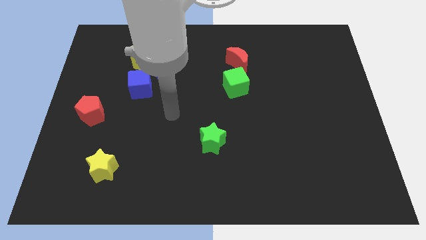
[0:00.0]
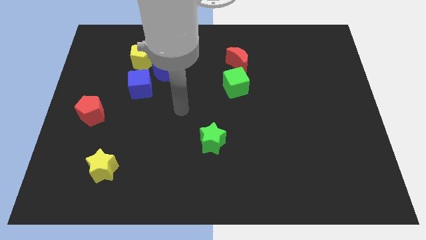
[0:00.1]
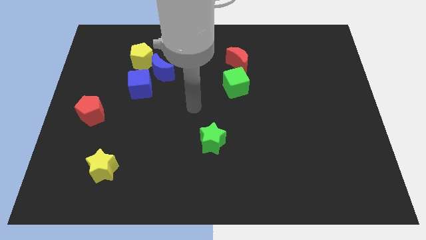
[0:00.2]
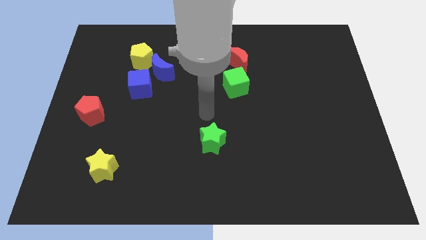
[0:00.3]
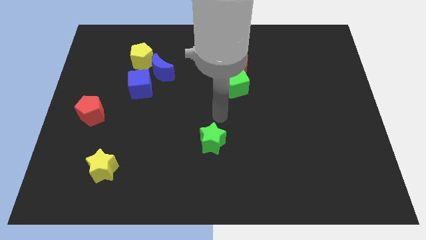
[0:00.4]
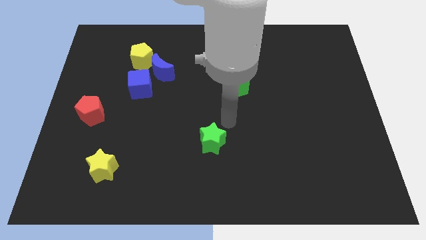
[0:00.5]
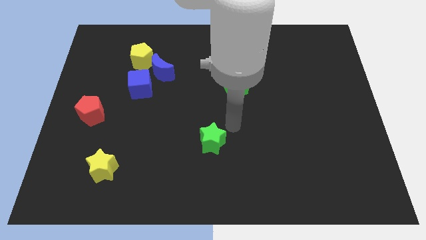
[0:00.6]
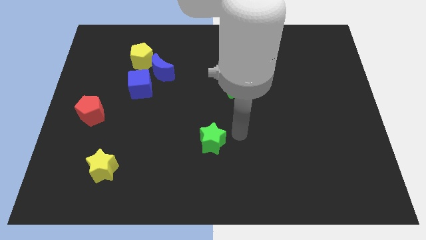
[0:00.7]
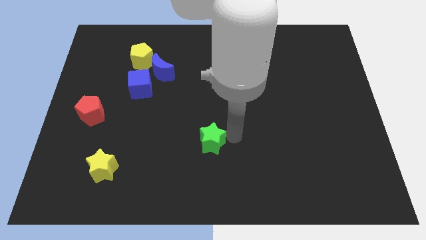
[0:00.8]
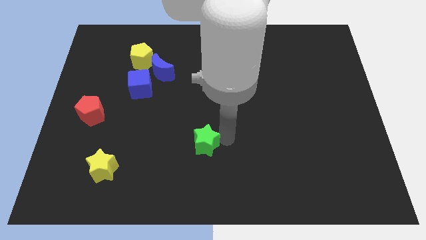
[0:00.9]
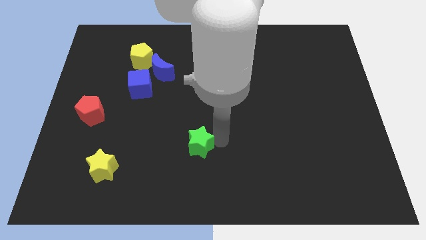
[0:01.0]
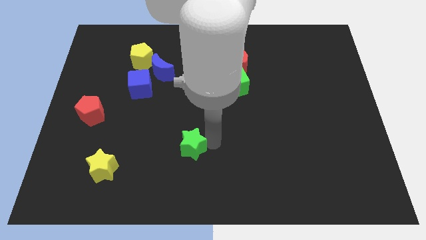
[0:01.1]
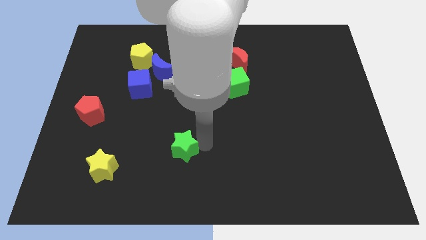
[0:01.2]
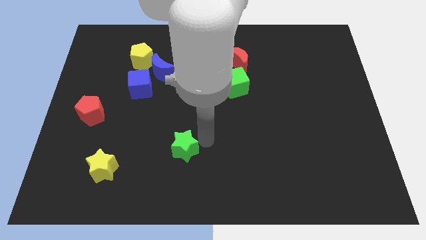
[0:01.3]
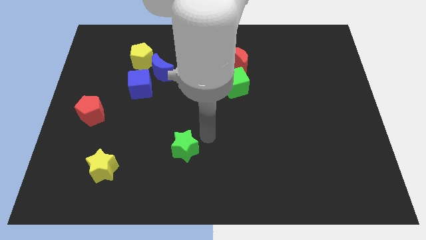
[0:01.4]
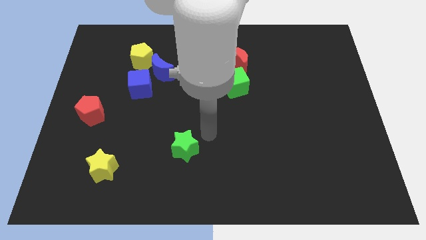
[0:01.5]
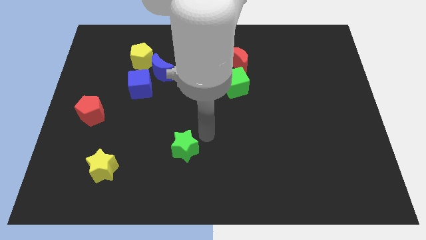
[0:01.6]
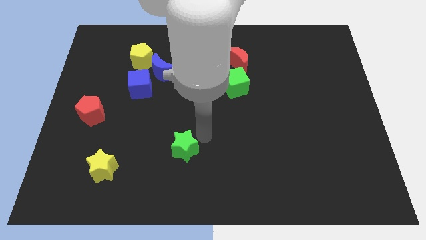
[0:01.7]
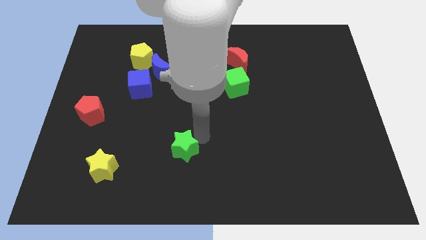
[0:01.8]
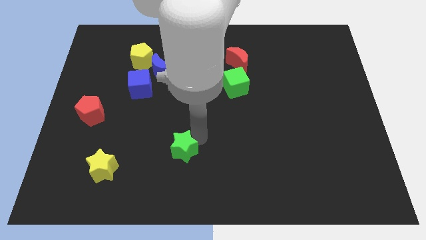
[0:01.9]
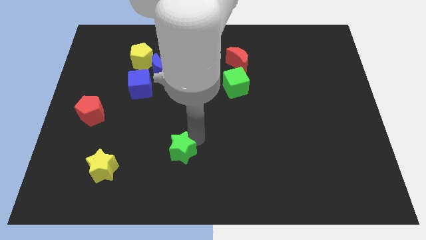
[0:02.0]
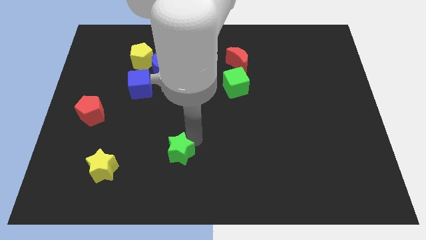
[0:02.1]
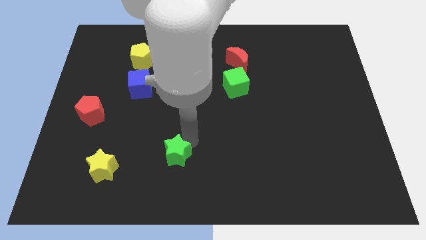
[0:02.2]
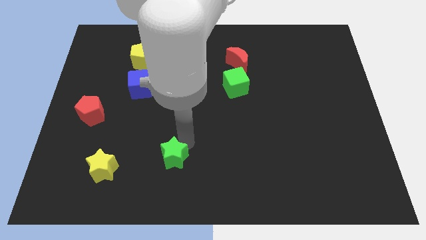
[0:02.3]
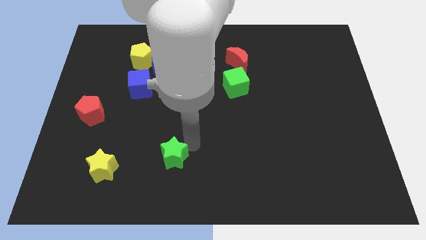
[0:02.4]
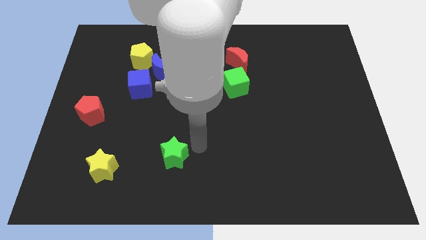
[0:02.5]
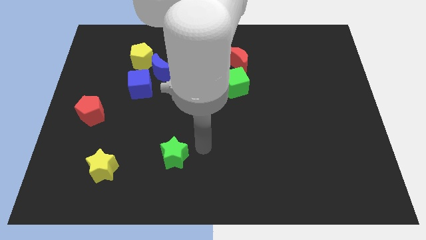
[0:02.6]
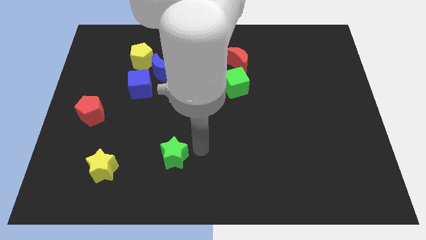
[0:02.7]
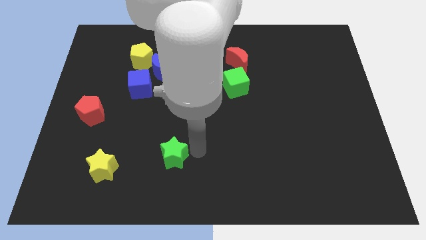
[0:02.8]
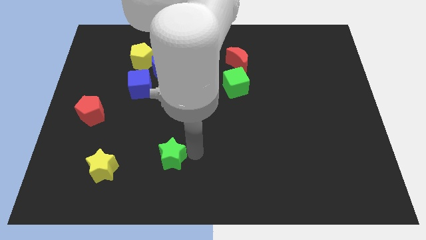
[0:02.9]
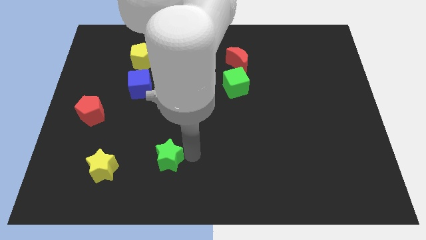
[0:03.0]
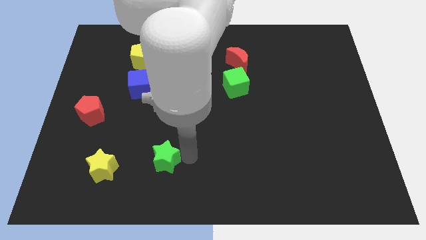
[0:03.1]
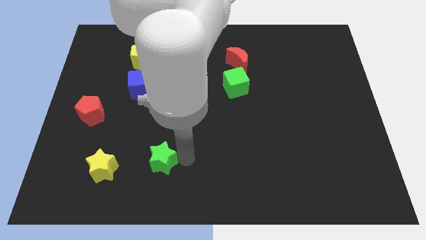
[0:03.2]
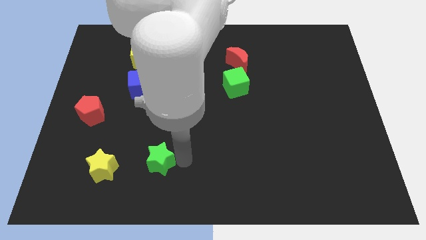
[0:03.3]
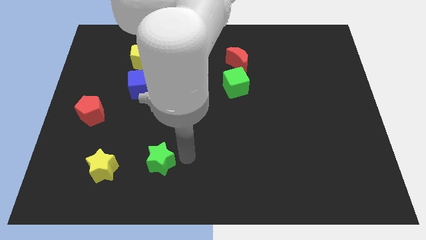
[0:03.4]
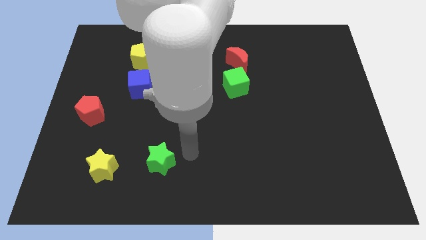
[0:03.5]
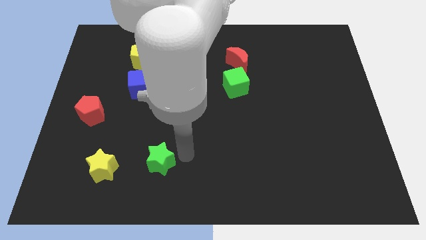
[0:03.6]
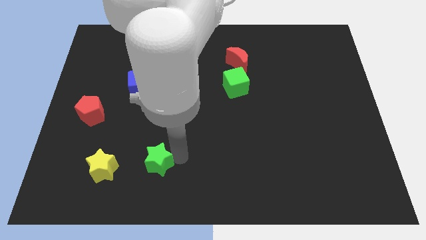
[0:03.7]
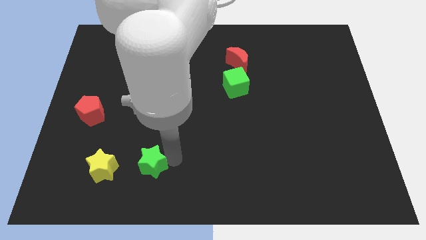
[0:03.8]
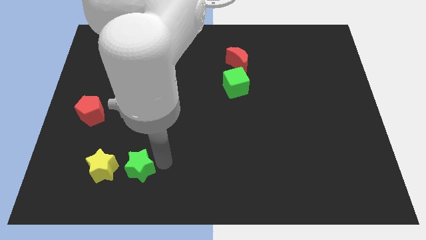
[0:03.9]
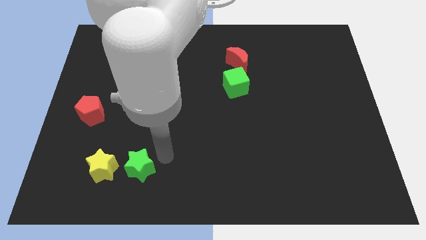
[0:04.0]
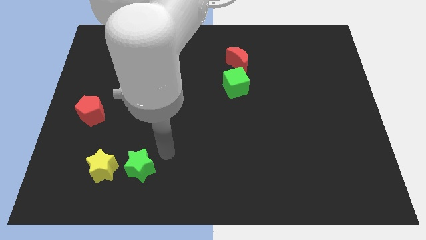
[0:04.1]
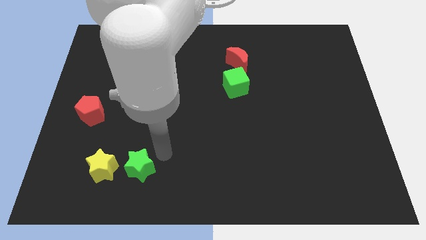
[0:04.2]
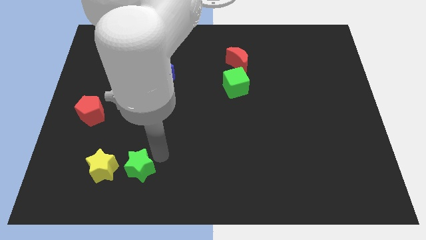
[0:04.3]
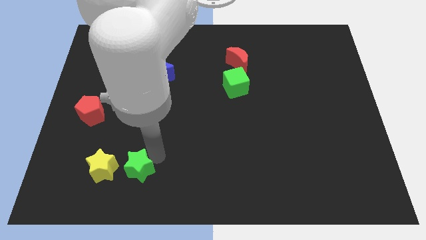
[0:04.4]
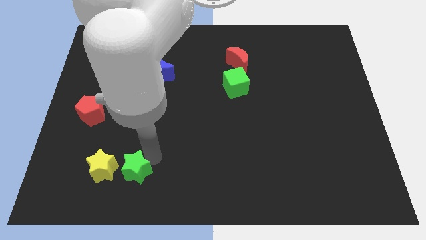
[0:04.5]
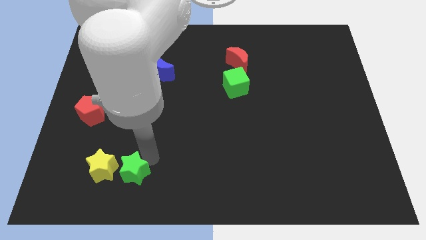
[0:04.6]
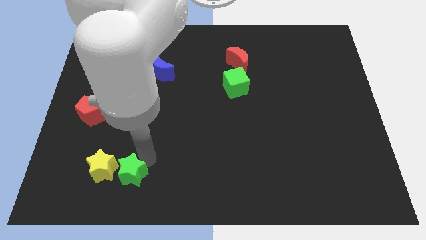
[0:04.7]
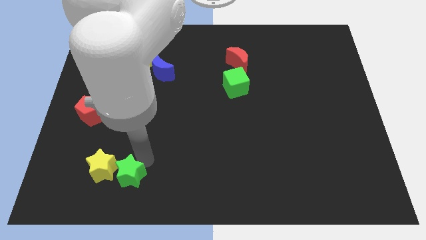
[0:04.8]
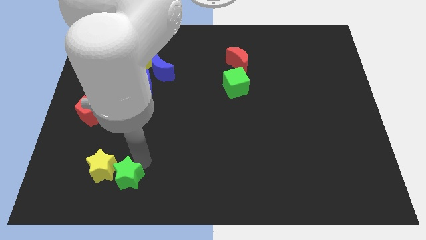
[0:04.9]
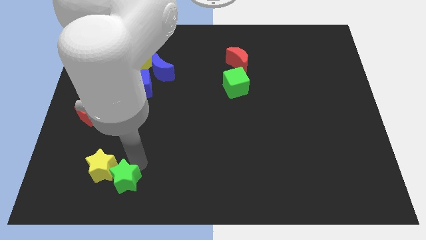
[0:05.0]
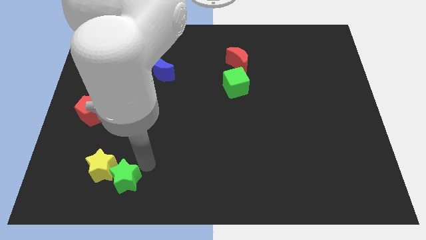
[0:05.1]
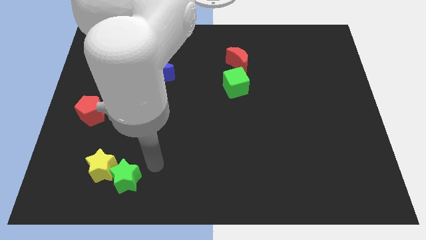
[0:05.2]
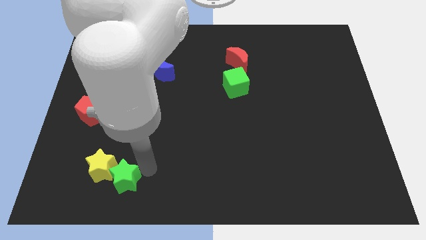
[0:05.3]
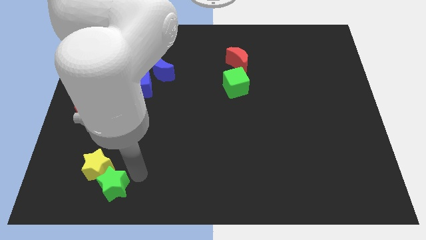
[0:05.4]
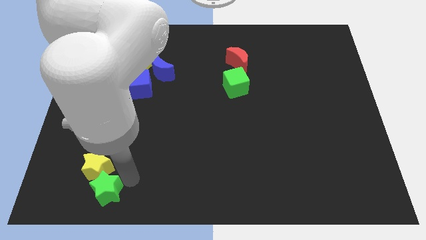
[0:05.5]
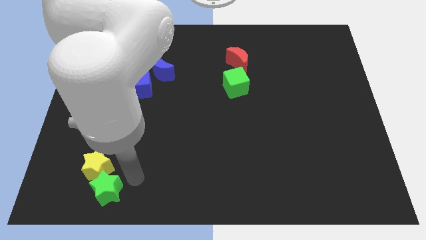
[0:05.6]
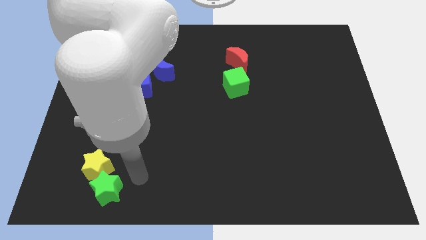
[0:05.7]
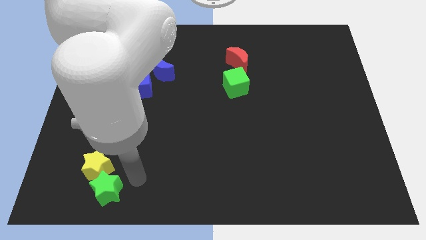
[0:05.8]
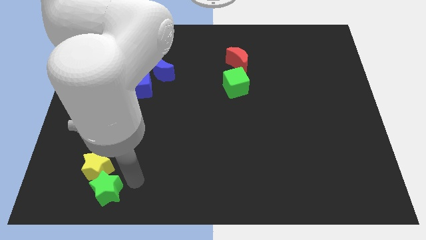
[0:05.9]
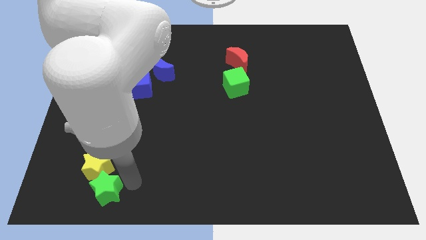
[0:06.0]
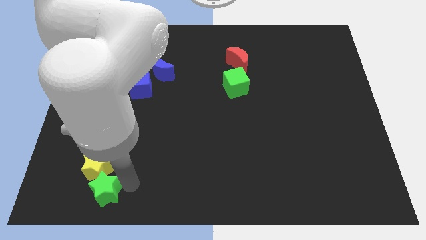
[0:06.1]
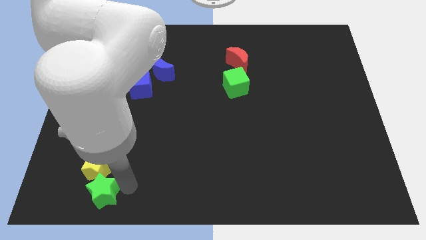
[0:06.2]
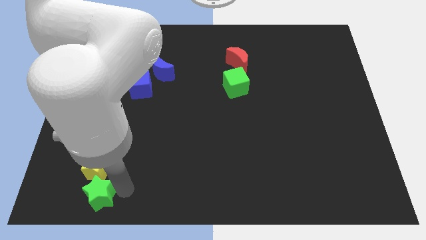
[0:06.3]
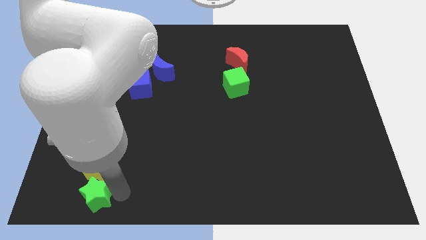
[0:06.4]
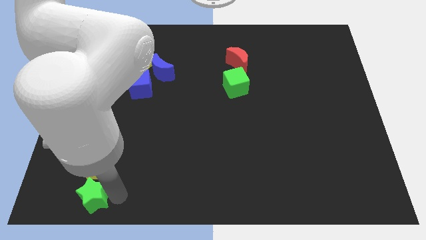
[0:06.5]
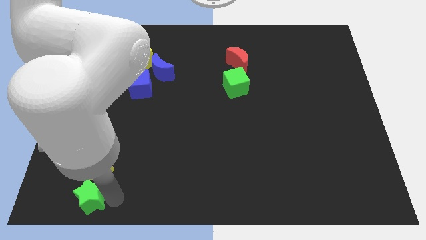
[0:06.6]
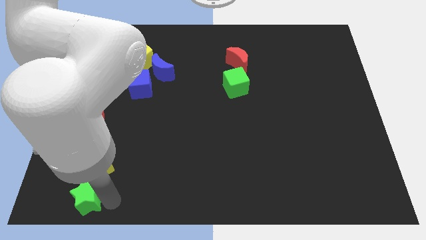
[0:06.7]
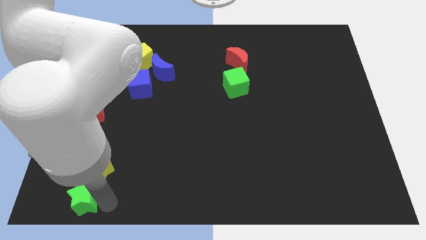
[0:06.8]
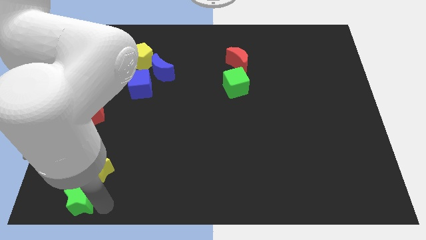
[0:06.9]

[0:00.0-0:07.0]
slide the green star to the bottom left

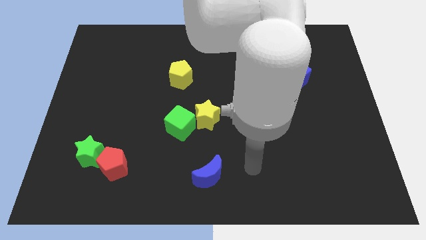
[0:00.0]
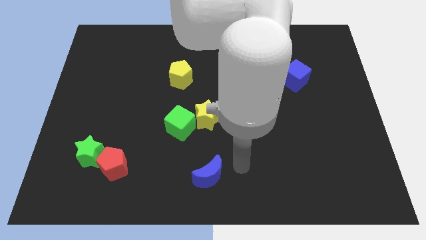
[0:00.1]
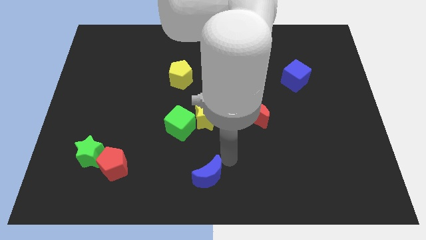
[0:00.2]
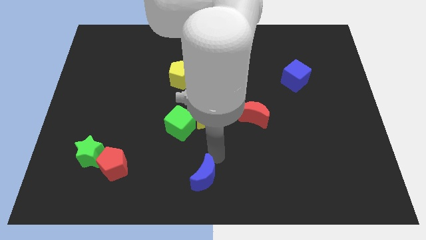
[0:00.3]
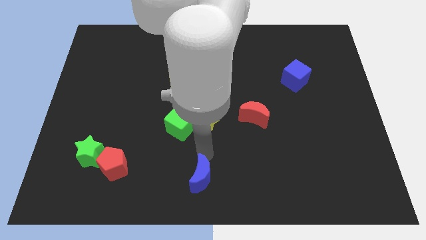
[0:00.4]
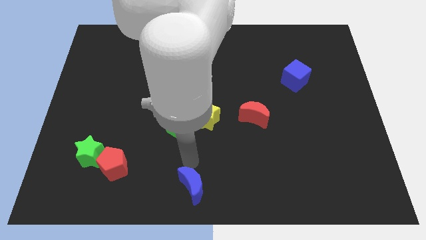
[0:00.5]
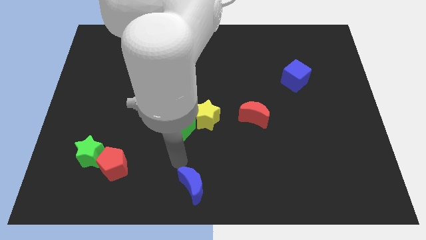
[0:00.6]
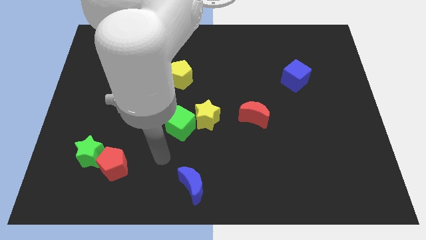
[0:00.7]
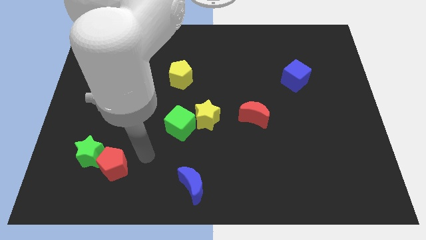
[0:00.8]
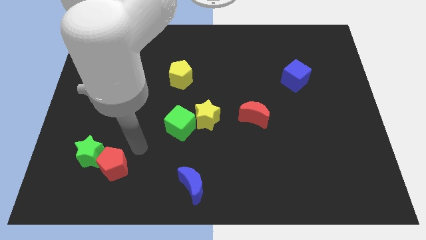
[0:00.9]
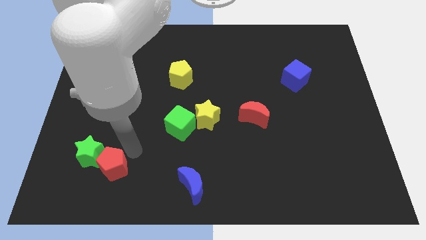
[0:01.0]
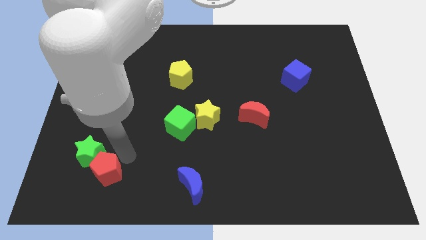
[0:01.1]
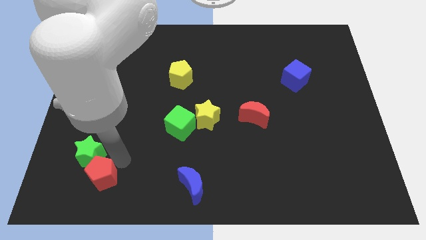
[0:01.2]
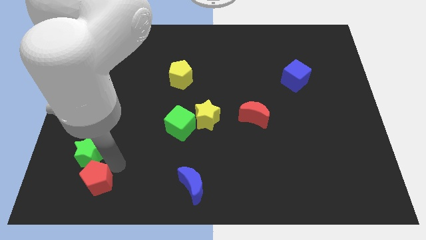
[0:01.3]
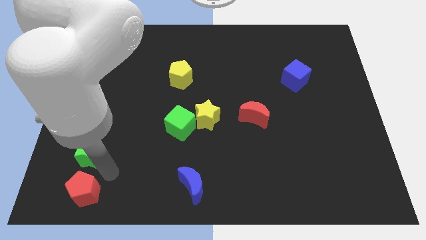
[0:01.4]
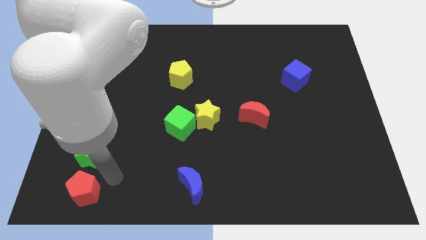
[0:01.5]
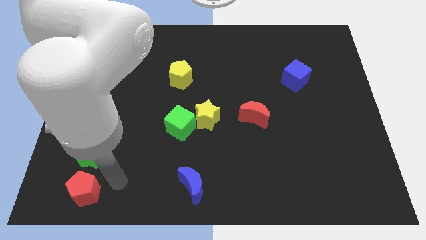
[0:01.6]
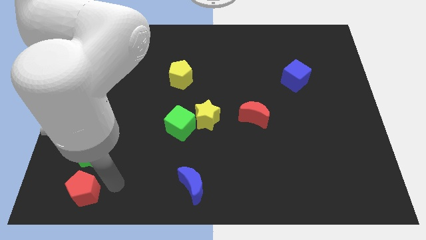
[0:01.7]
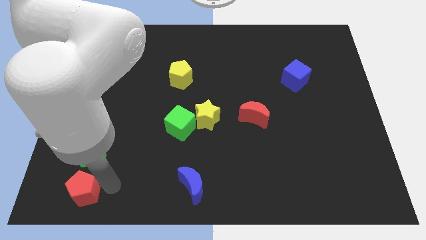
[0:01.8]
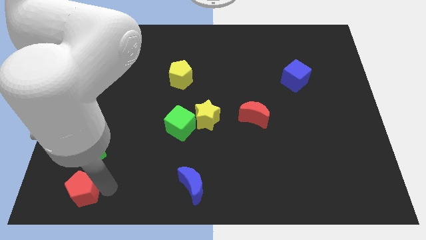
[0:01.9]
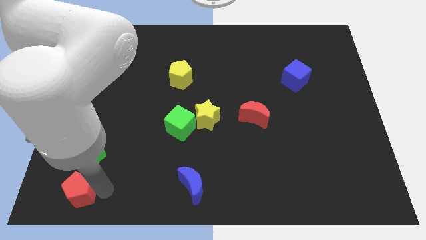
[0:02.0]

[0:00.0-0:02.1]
move the red pentagon to the lower left corner
